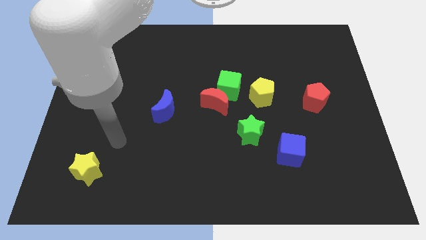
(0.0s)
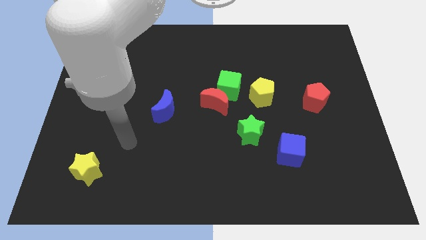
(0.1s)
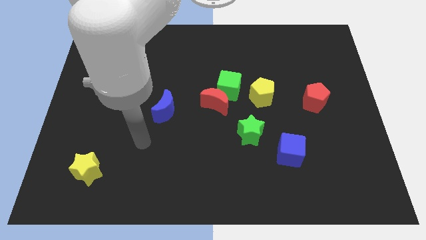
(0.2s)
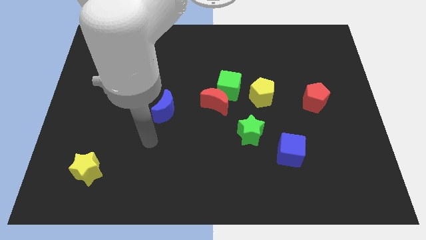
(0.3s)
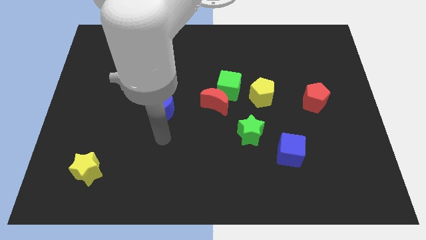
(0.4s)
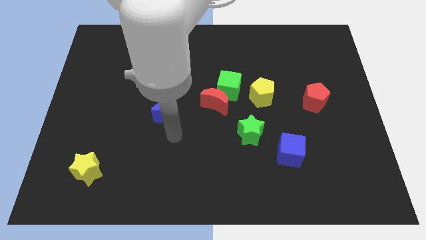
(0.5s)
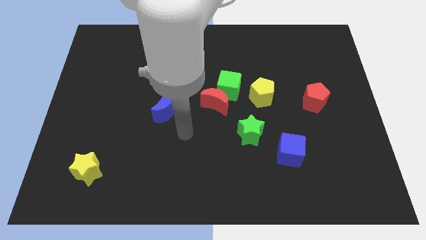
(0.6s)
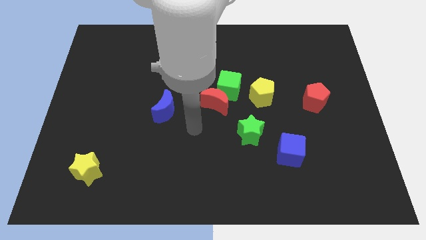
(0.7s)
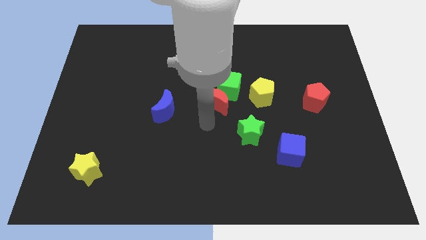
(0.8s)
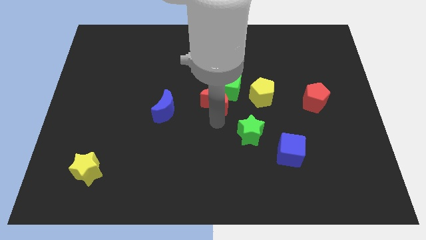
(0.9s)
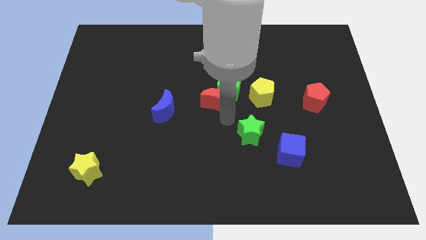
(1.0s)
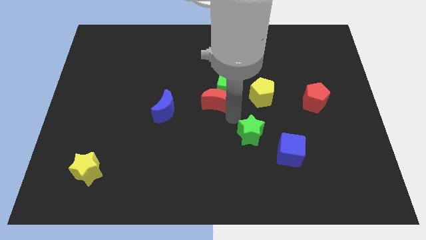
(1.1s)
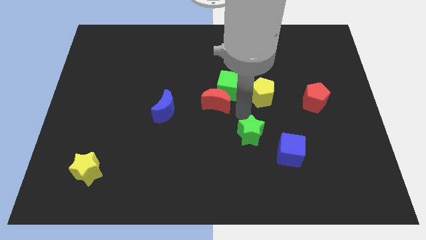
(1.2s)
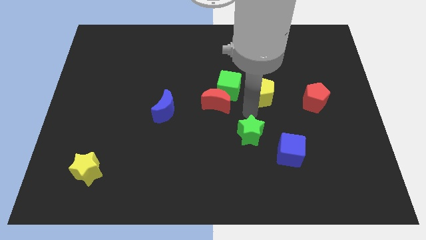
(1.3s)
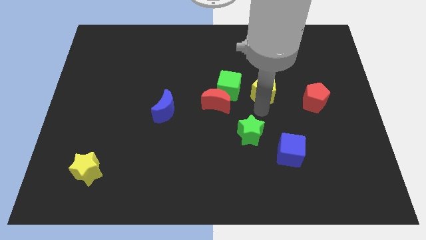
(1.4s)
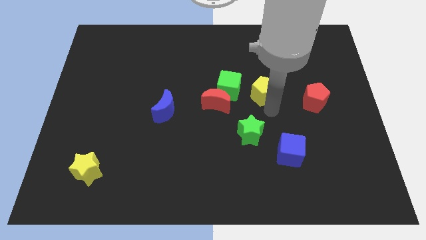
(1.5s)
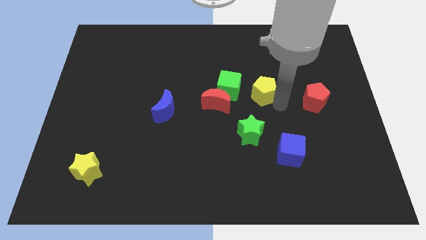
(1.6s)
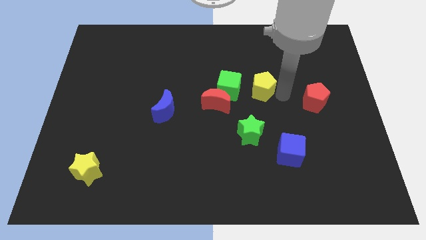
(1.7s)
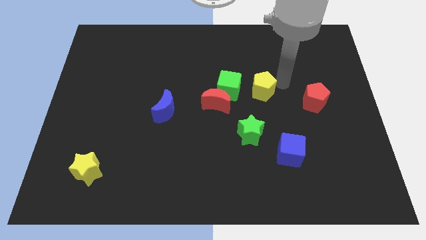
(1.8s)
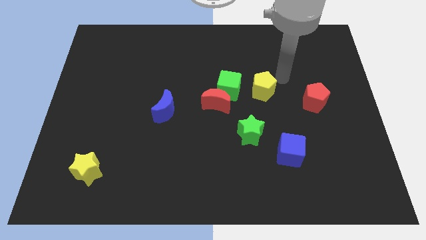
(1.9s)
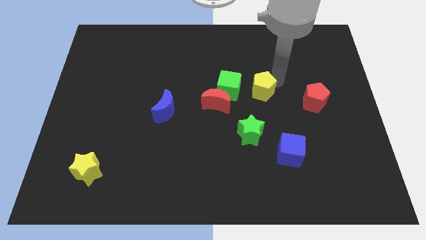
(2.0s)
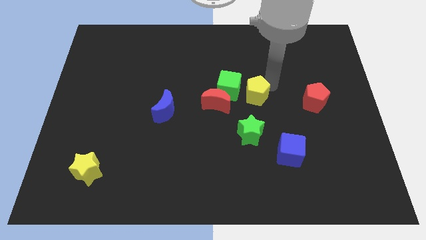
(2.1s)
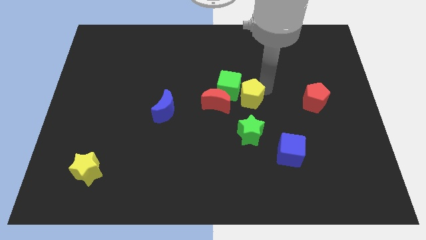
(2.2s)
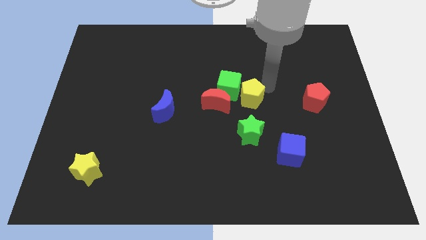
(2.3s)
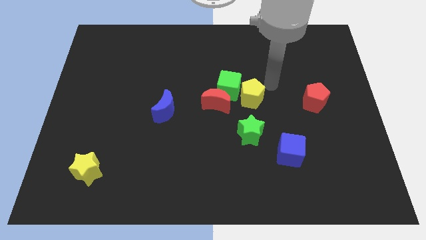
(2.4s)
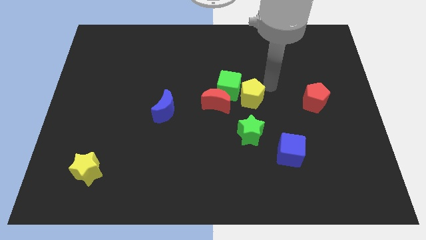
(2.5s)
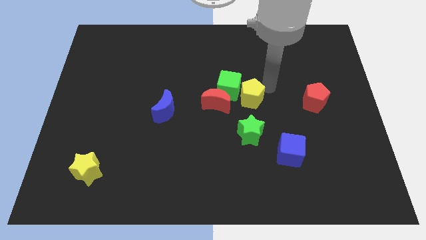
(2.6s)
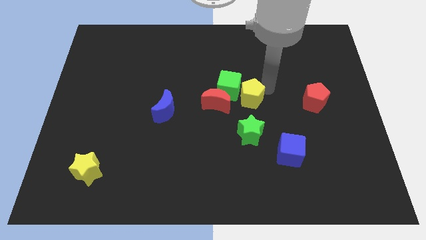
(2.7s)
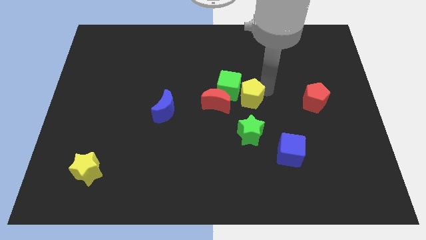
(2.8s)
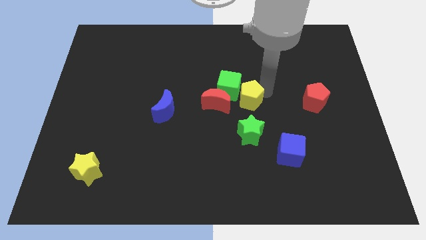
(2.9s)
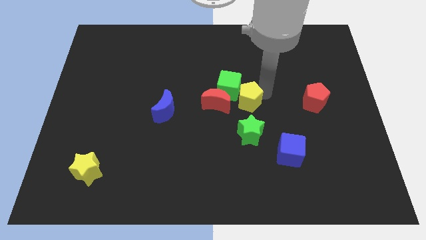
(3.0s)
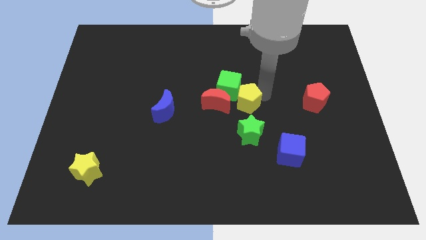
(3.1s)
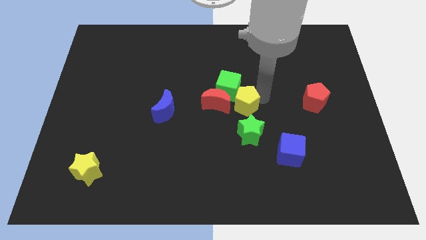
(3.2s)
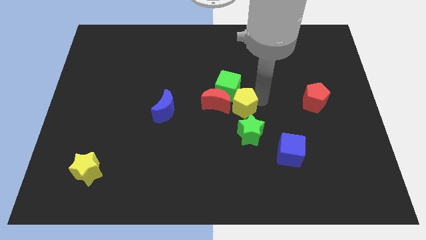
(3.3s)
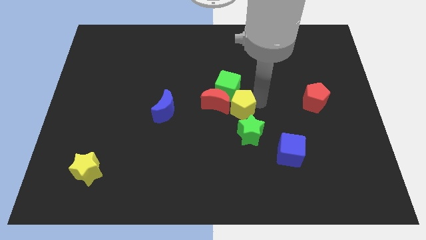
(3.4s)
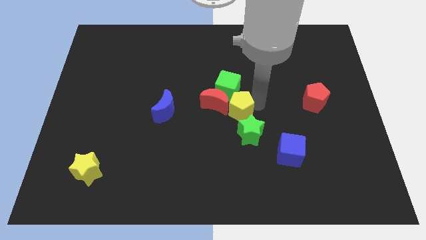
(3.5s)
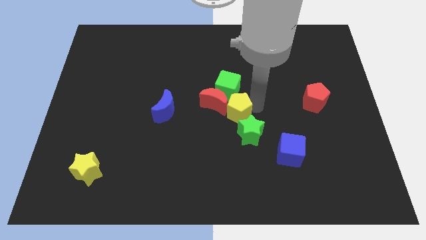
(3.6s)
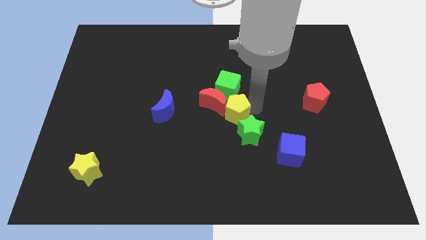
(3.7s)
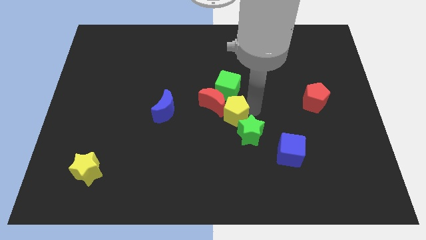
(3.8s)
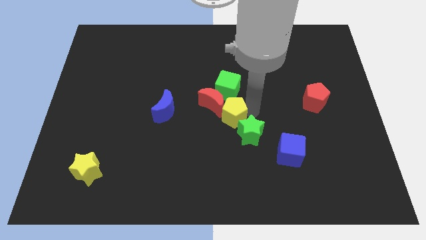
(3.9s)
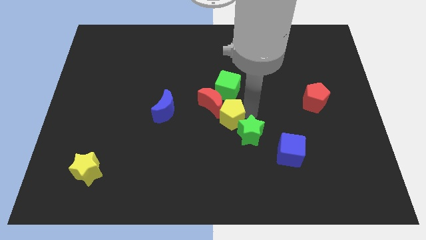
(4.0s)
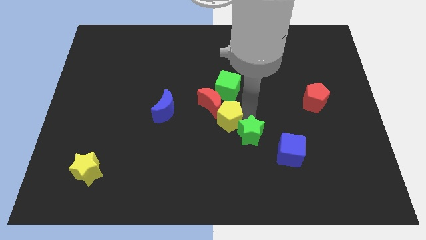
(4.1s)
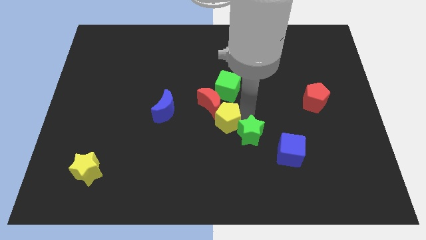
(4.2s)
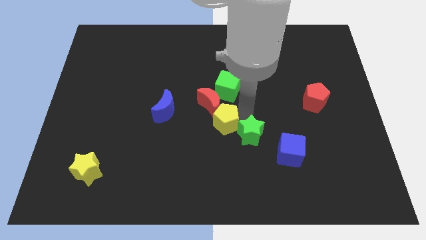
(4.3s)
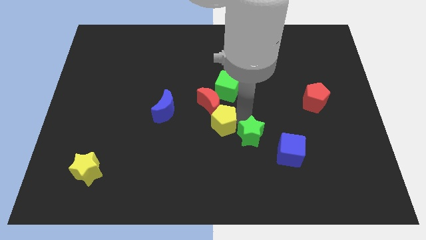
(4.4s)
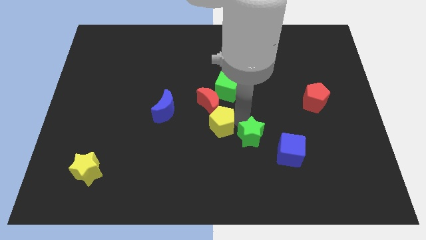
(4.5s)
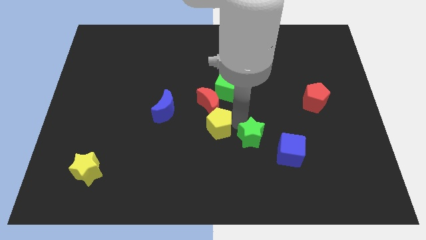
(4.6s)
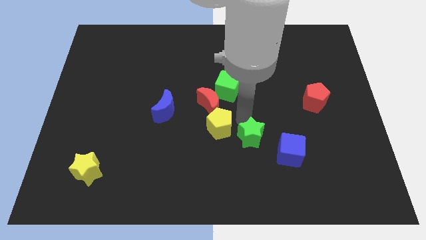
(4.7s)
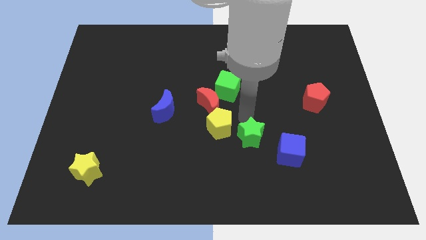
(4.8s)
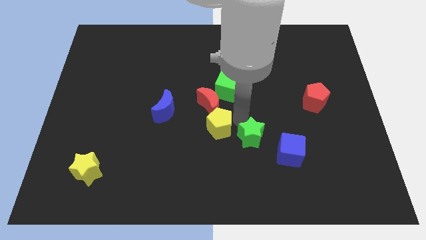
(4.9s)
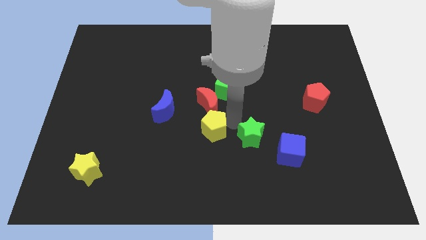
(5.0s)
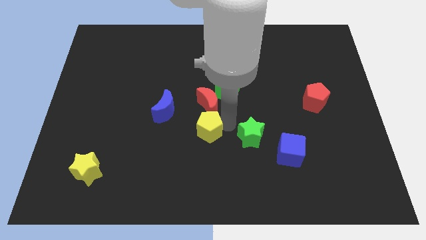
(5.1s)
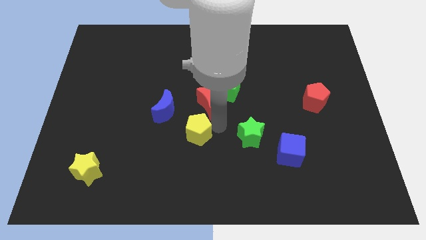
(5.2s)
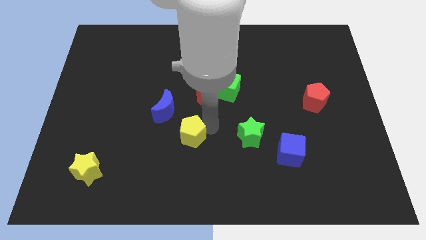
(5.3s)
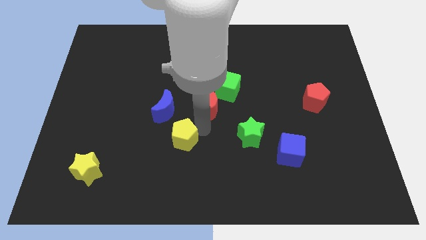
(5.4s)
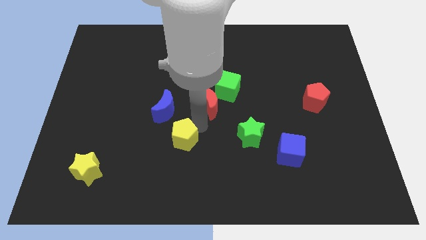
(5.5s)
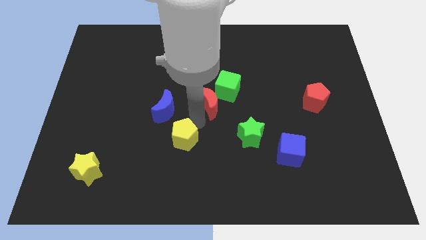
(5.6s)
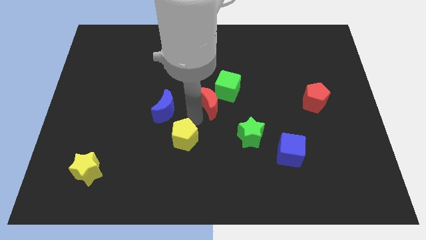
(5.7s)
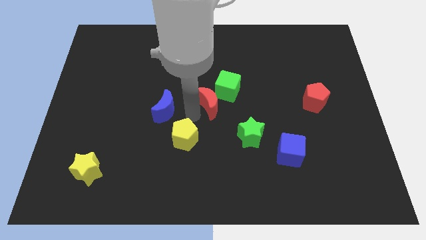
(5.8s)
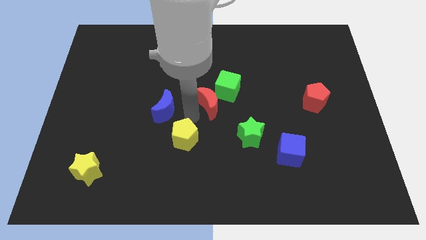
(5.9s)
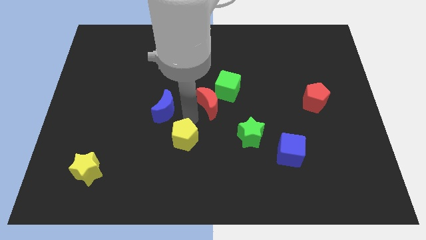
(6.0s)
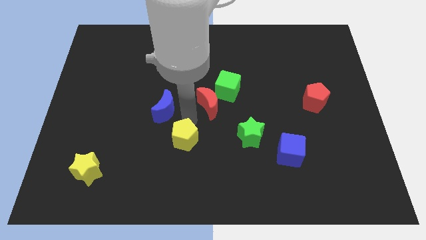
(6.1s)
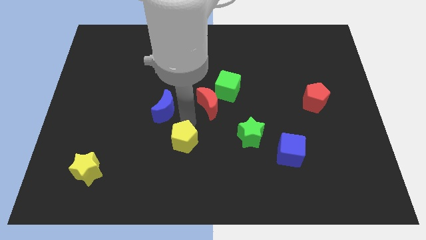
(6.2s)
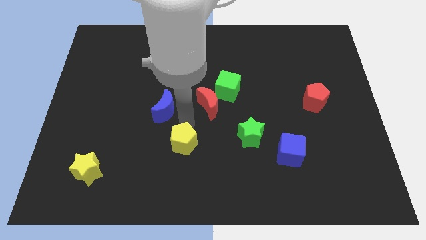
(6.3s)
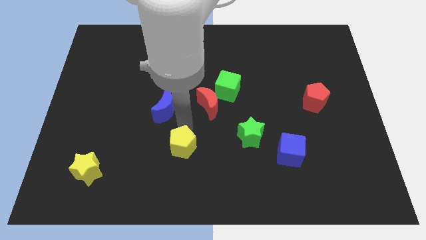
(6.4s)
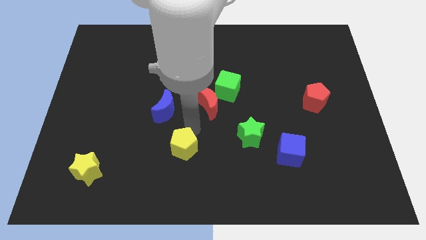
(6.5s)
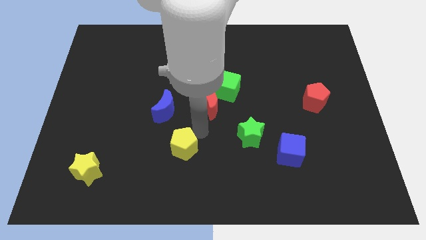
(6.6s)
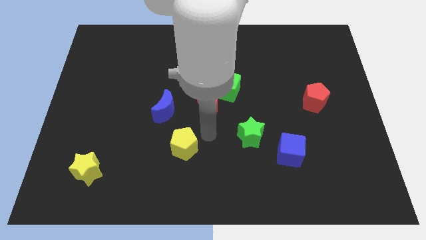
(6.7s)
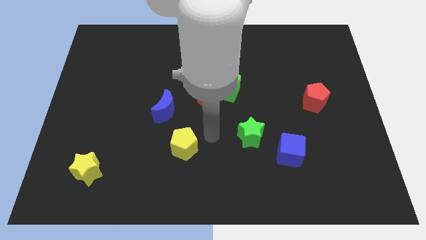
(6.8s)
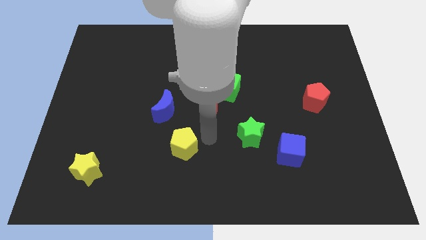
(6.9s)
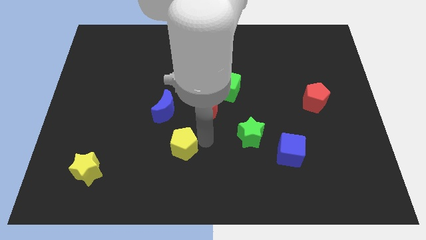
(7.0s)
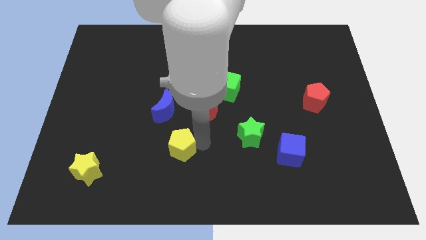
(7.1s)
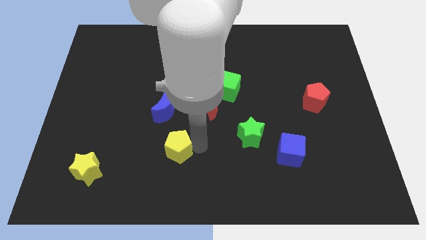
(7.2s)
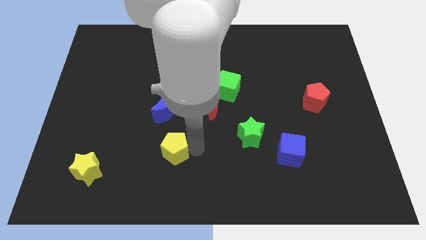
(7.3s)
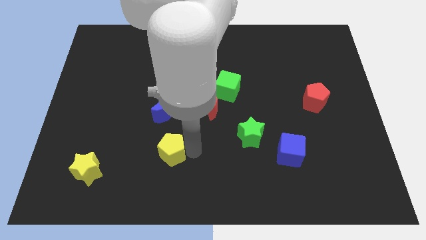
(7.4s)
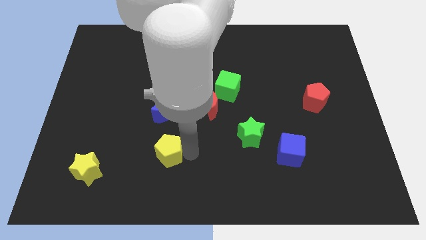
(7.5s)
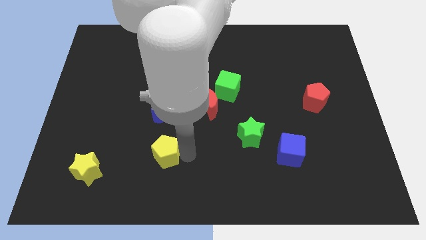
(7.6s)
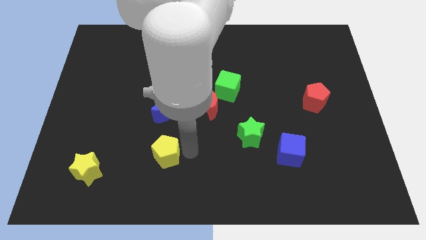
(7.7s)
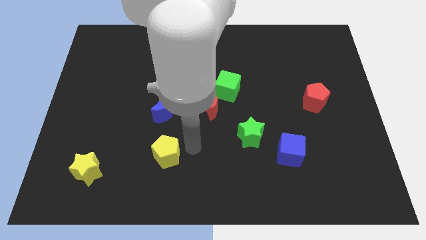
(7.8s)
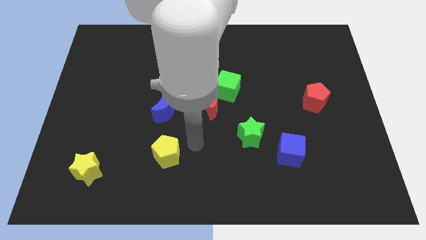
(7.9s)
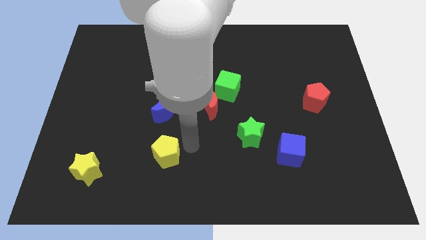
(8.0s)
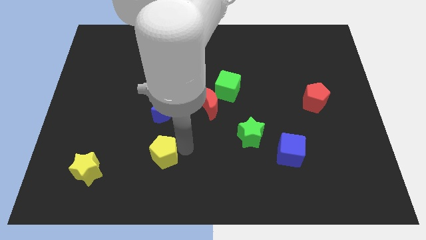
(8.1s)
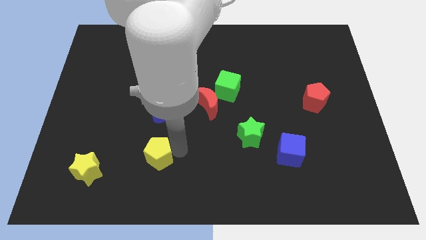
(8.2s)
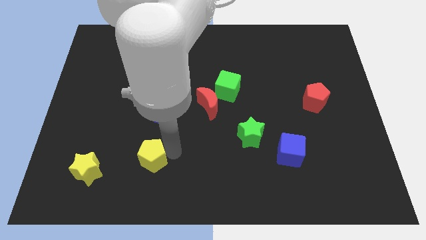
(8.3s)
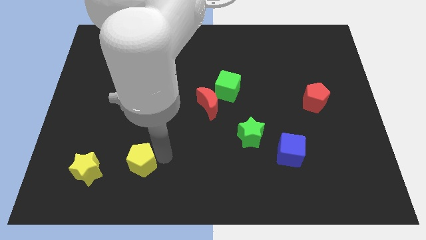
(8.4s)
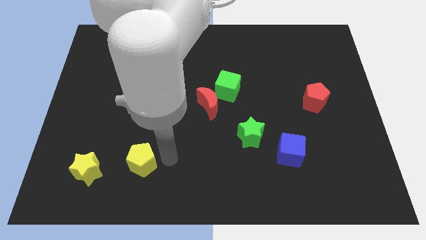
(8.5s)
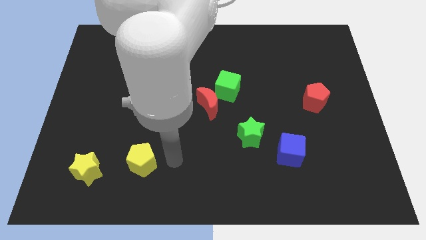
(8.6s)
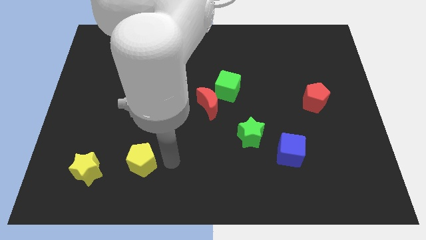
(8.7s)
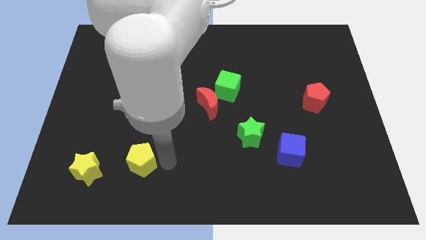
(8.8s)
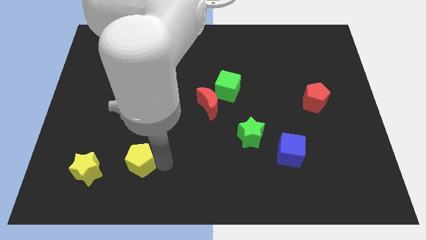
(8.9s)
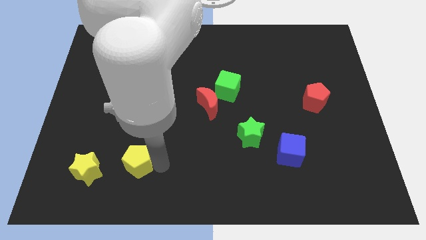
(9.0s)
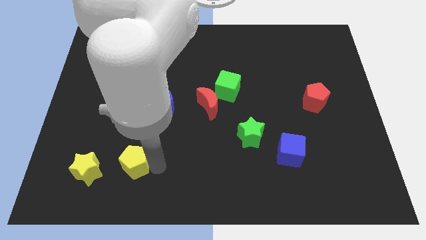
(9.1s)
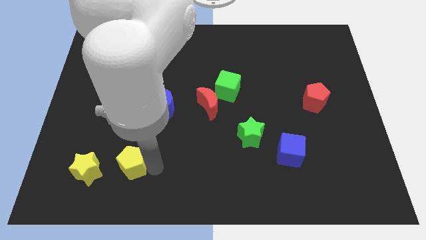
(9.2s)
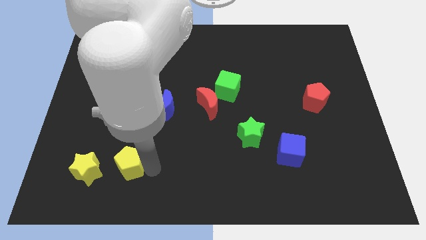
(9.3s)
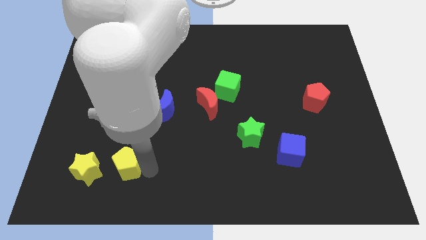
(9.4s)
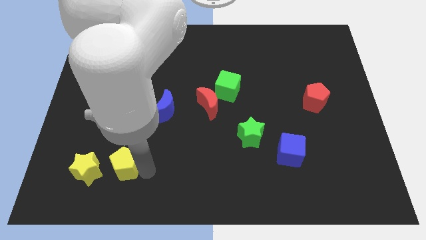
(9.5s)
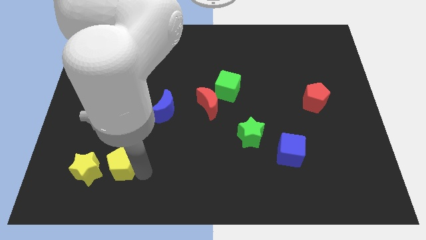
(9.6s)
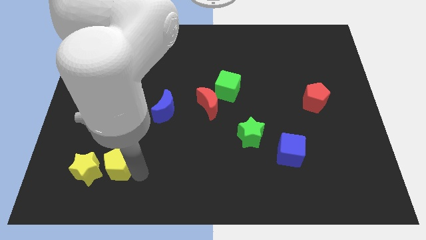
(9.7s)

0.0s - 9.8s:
move the yellow pentagon towards the yellow star
